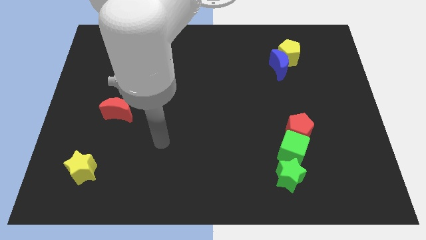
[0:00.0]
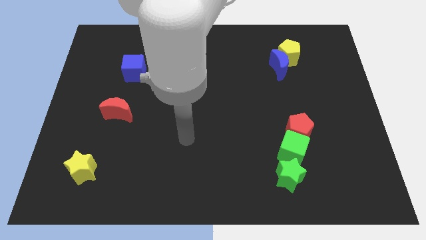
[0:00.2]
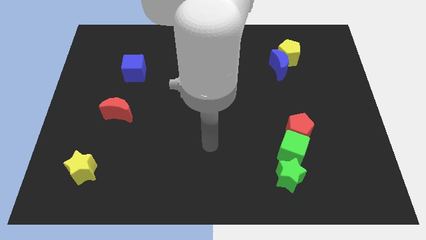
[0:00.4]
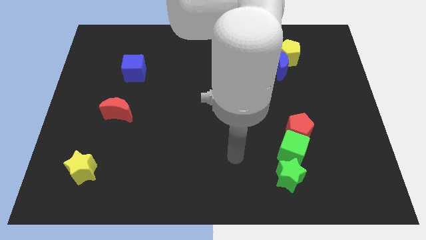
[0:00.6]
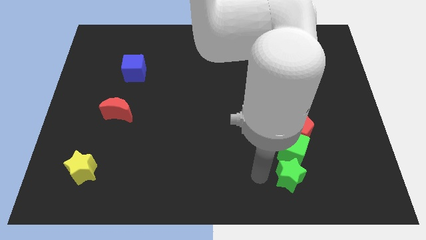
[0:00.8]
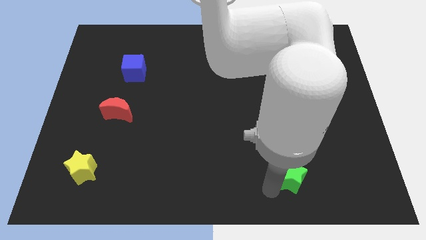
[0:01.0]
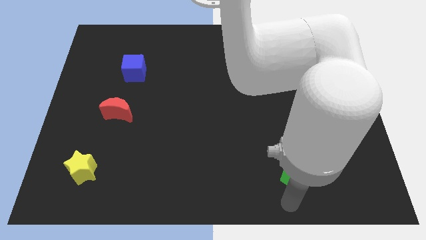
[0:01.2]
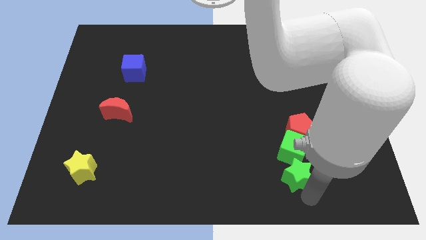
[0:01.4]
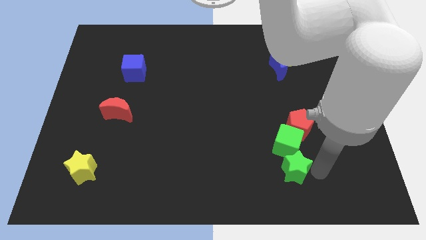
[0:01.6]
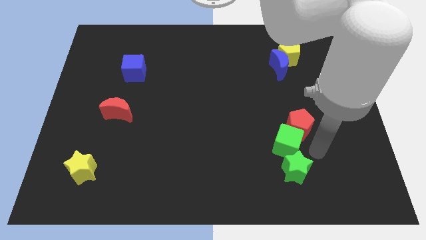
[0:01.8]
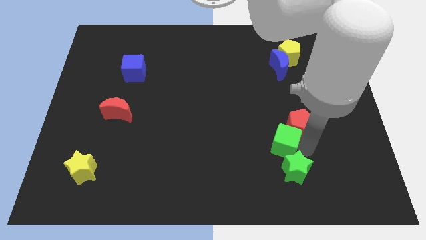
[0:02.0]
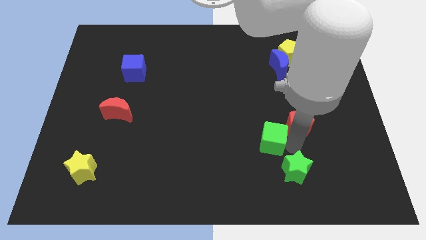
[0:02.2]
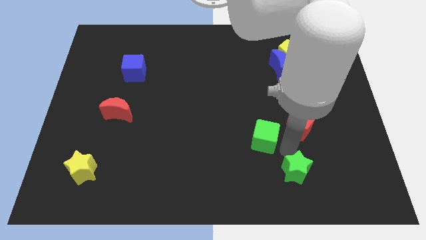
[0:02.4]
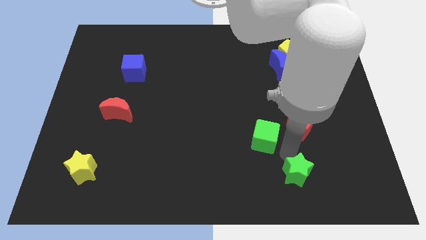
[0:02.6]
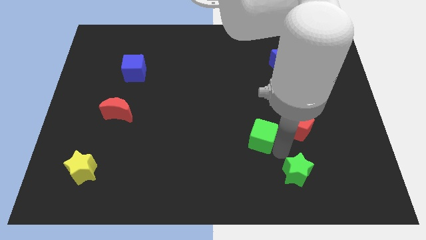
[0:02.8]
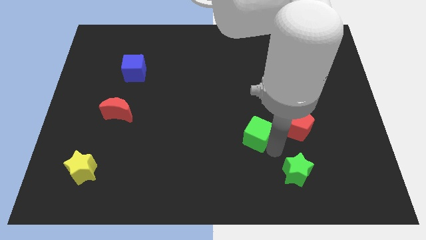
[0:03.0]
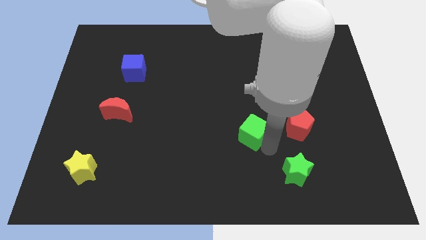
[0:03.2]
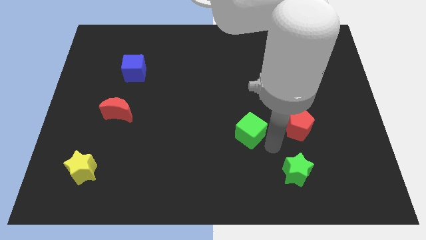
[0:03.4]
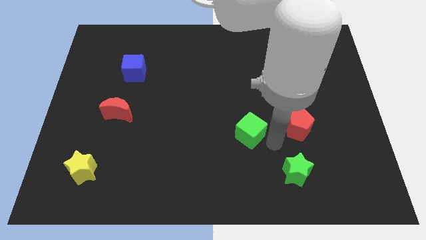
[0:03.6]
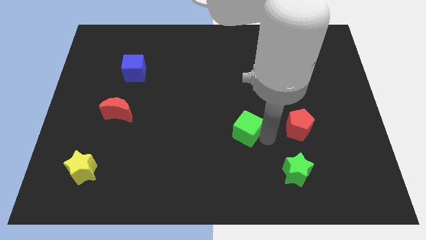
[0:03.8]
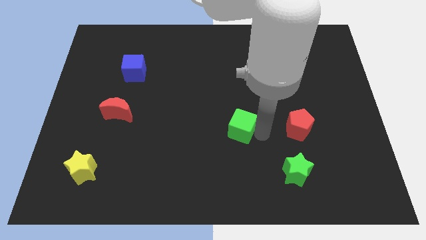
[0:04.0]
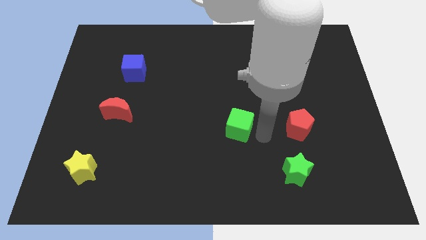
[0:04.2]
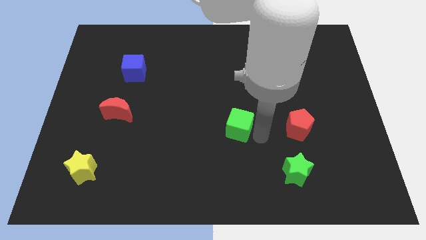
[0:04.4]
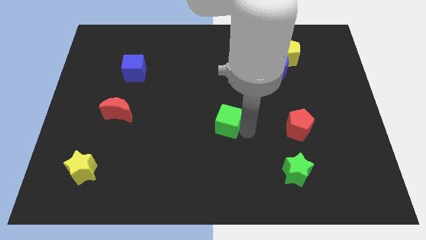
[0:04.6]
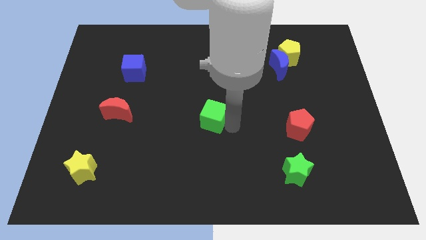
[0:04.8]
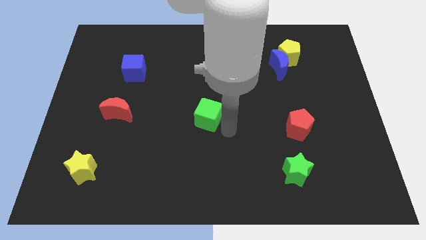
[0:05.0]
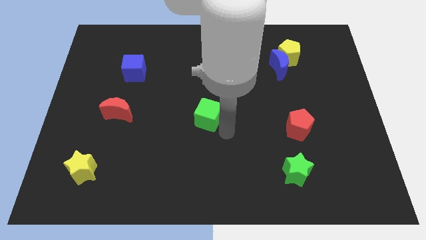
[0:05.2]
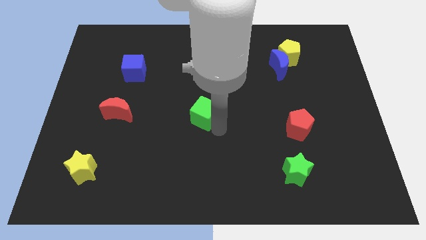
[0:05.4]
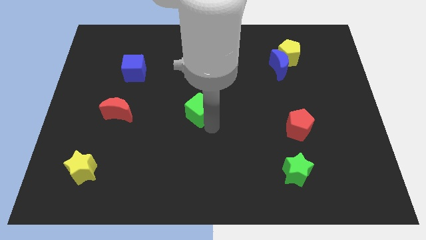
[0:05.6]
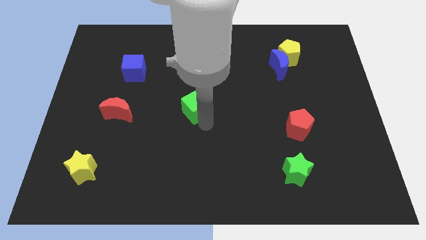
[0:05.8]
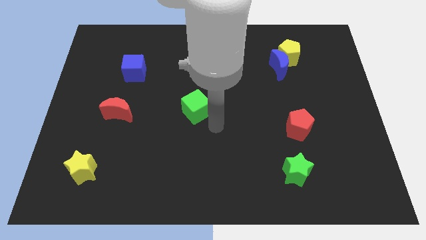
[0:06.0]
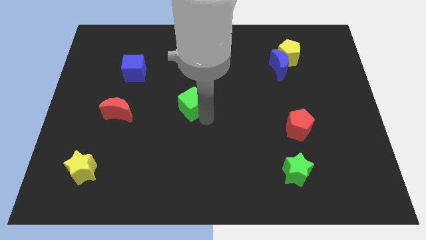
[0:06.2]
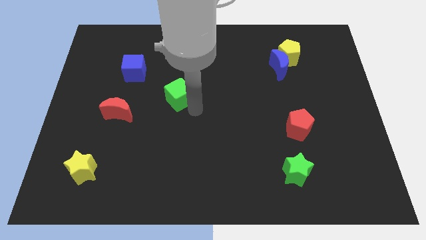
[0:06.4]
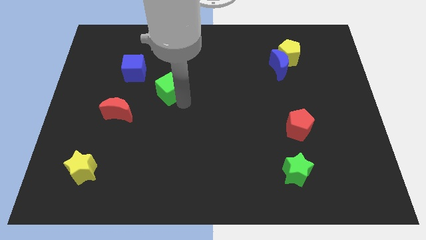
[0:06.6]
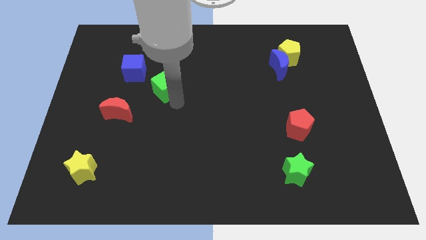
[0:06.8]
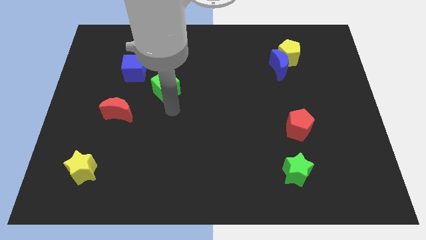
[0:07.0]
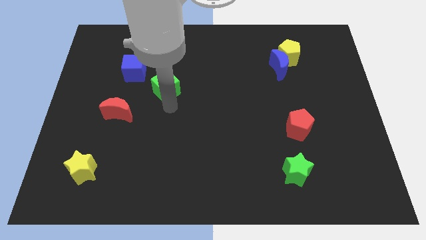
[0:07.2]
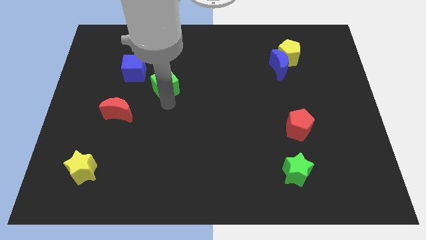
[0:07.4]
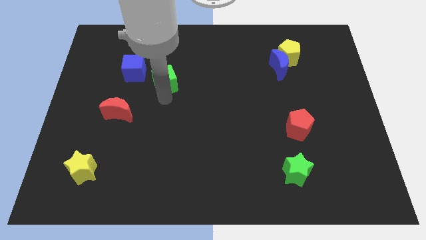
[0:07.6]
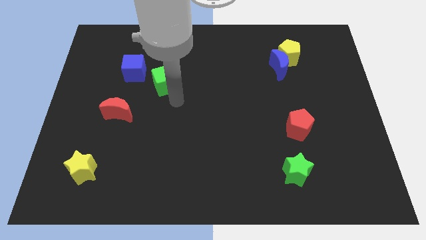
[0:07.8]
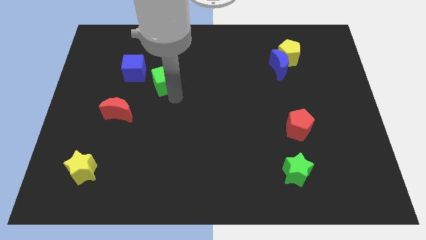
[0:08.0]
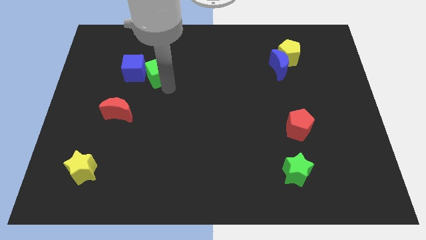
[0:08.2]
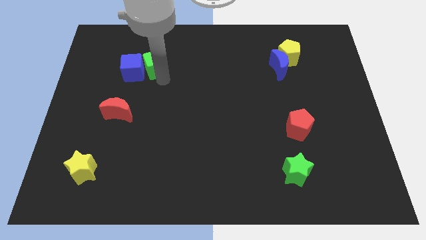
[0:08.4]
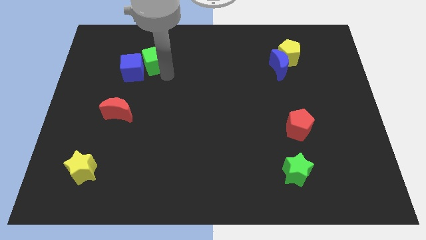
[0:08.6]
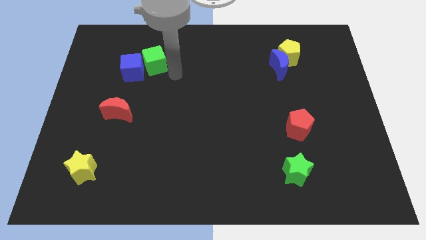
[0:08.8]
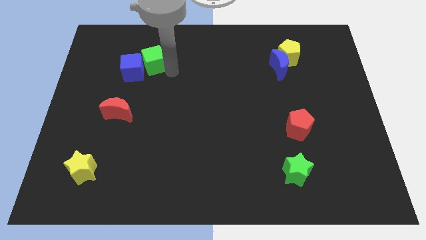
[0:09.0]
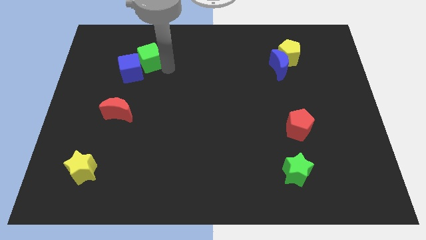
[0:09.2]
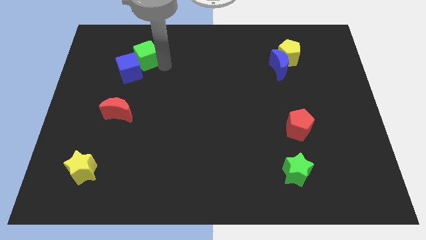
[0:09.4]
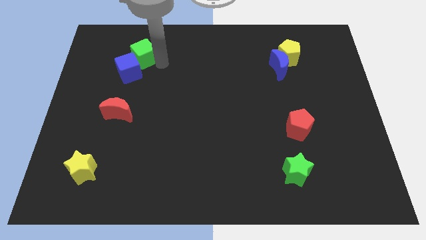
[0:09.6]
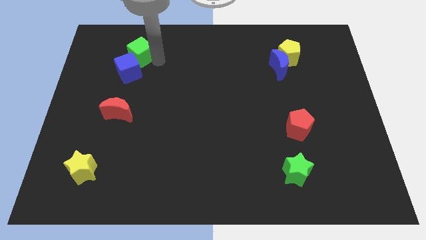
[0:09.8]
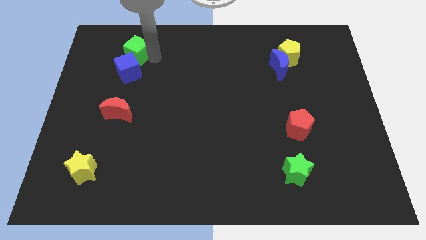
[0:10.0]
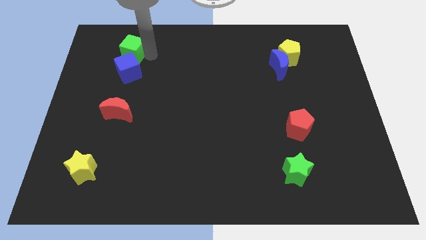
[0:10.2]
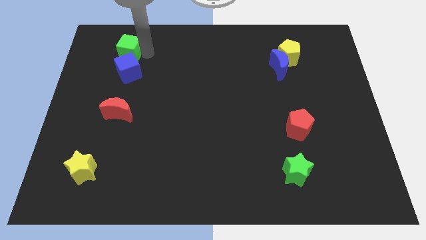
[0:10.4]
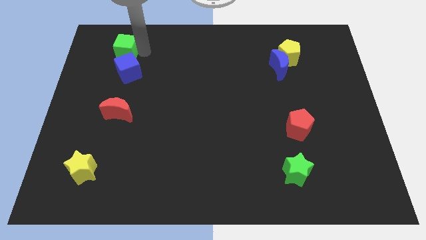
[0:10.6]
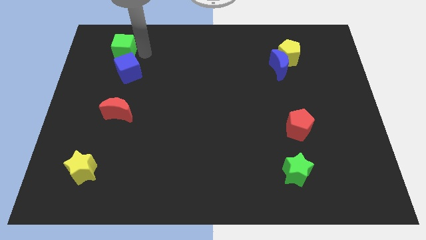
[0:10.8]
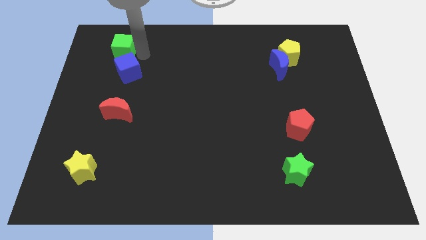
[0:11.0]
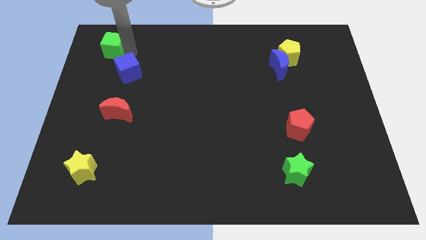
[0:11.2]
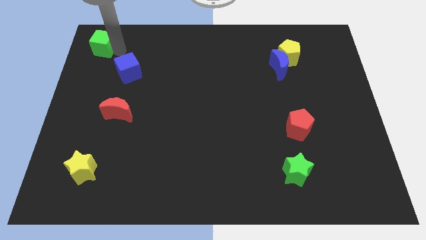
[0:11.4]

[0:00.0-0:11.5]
push the green cube to the top left of the board

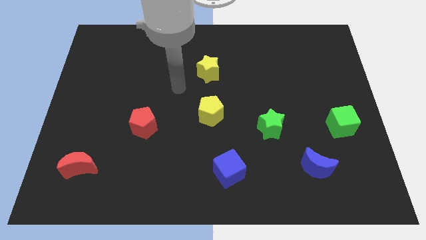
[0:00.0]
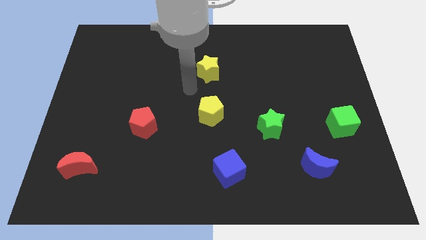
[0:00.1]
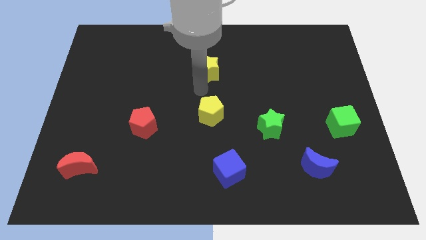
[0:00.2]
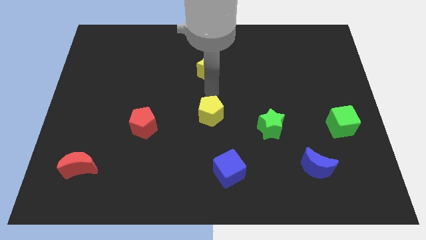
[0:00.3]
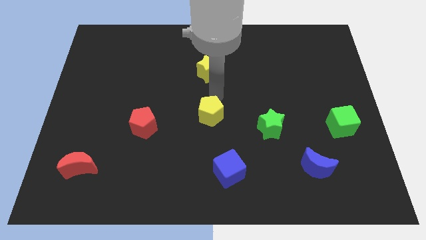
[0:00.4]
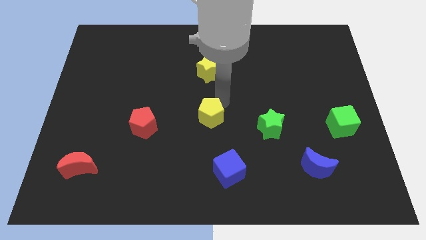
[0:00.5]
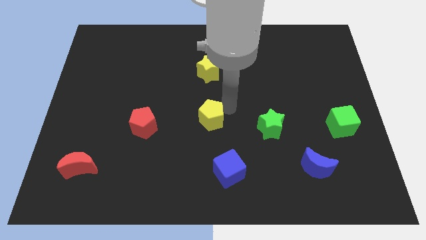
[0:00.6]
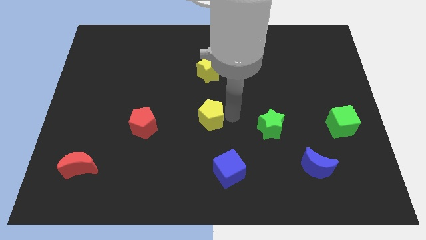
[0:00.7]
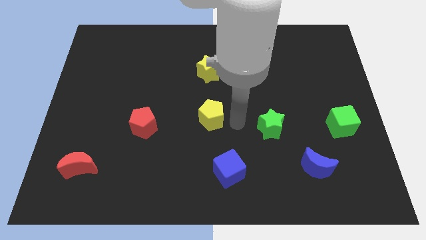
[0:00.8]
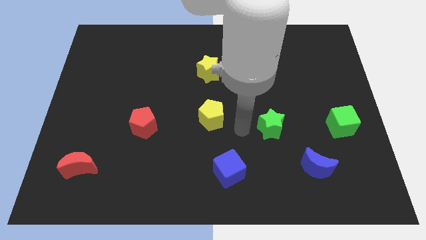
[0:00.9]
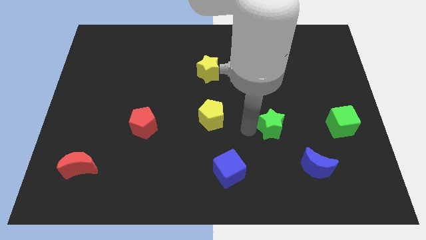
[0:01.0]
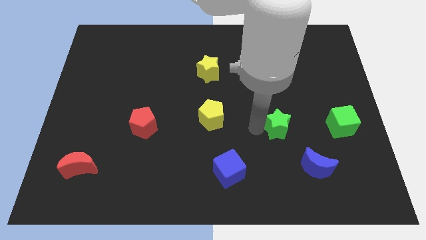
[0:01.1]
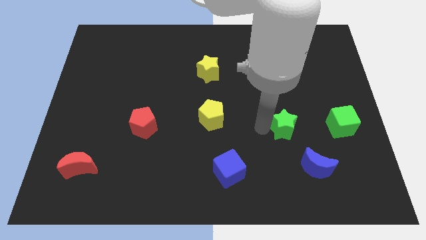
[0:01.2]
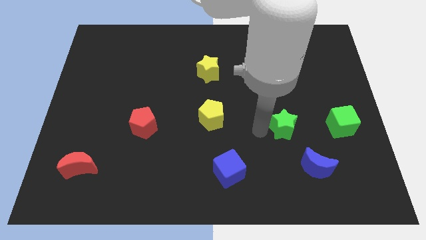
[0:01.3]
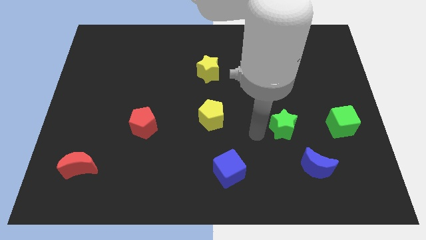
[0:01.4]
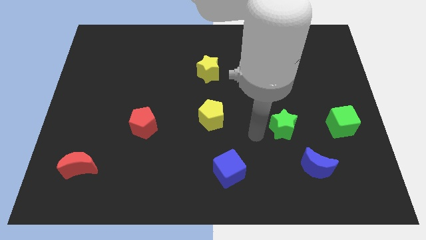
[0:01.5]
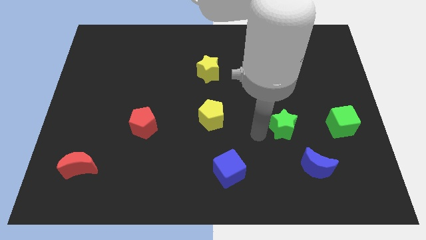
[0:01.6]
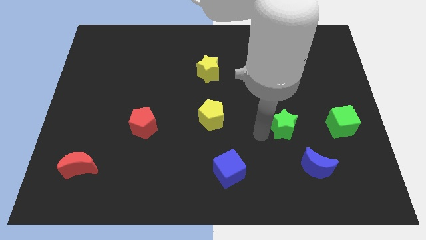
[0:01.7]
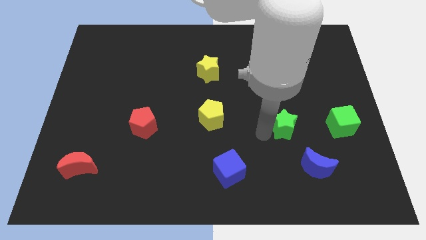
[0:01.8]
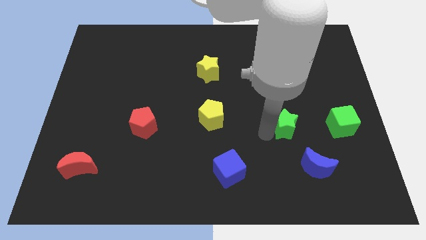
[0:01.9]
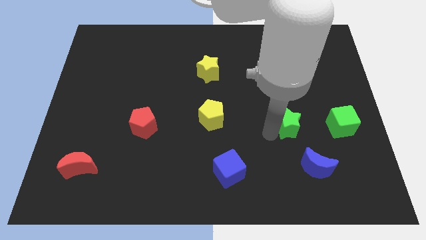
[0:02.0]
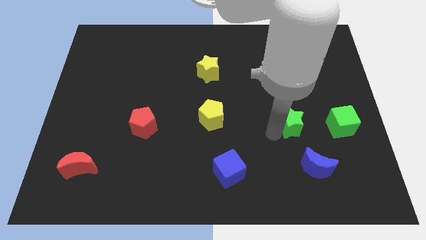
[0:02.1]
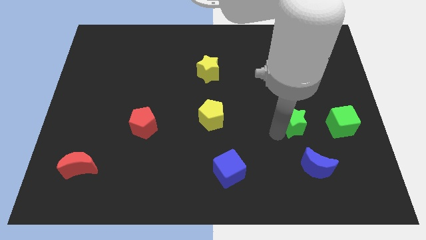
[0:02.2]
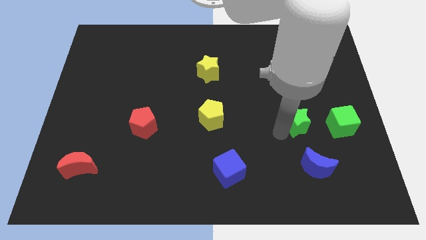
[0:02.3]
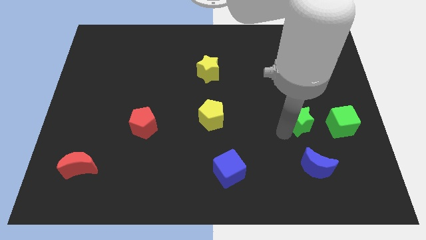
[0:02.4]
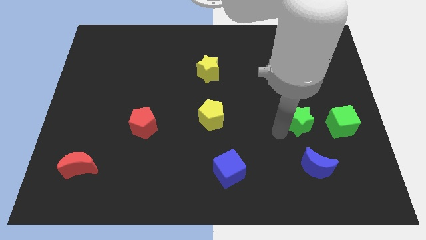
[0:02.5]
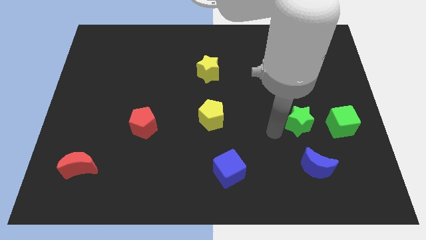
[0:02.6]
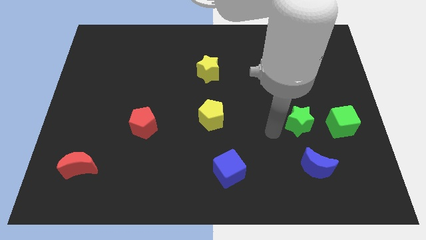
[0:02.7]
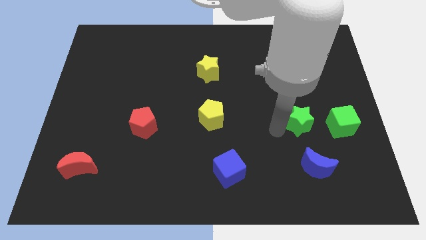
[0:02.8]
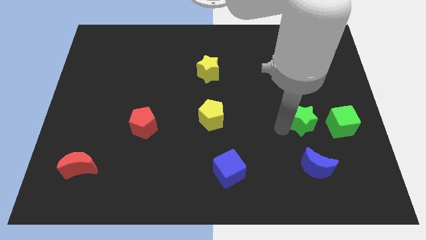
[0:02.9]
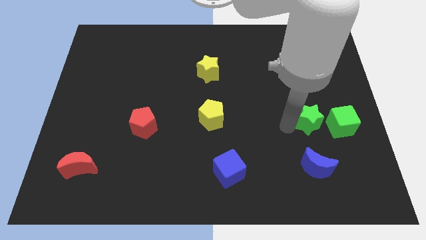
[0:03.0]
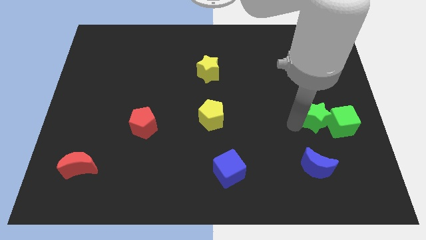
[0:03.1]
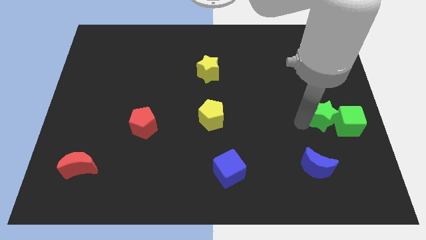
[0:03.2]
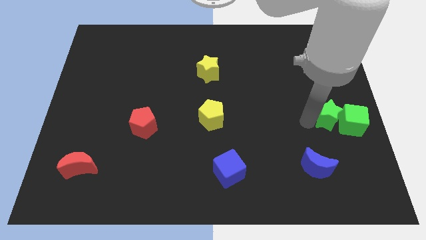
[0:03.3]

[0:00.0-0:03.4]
push the green star to the right side
